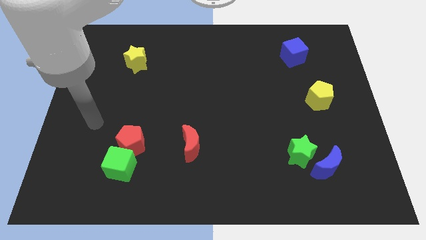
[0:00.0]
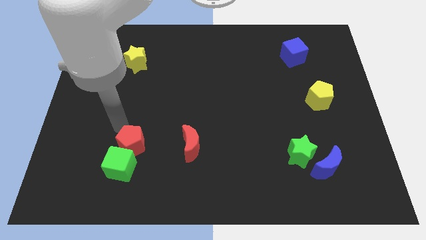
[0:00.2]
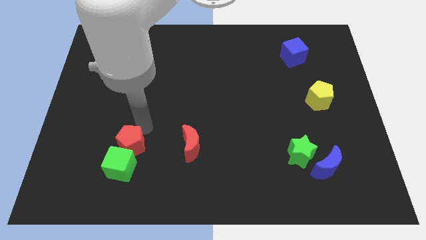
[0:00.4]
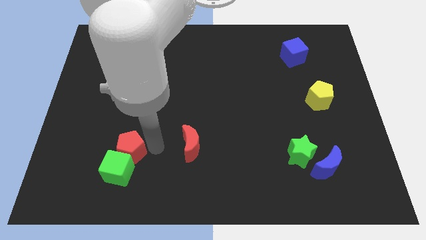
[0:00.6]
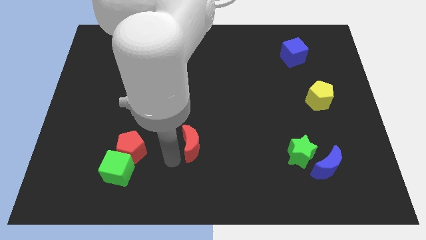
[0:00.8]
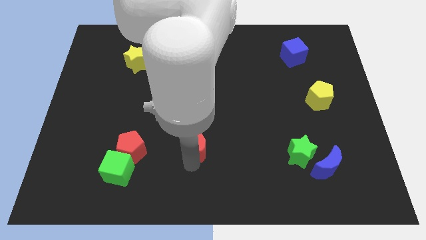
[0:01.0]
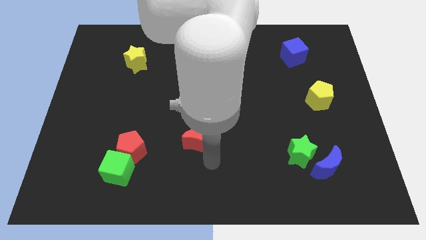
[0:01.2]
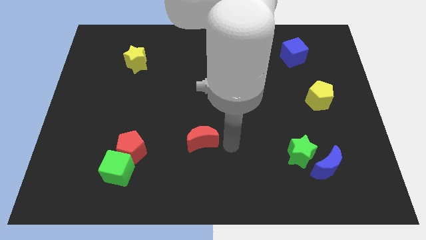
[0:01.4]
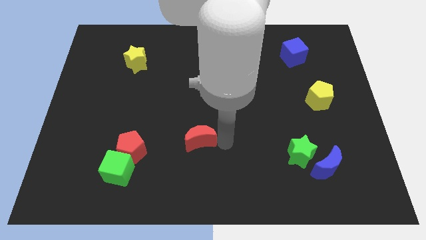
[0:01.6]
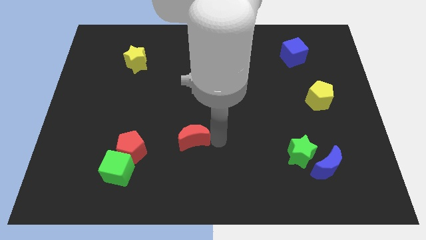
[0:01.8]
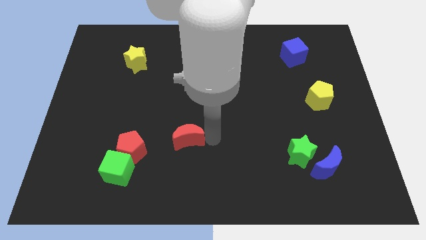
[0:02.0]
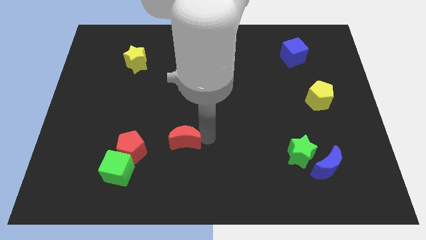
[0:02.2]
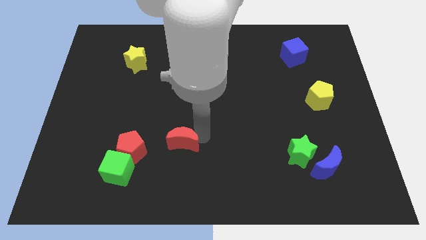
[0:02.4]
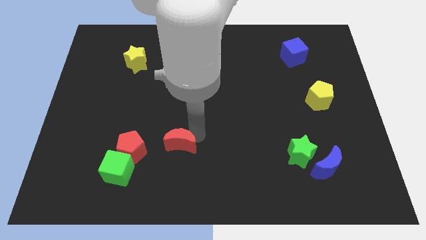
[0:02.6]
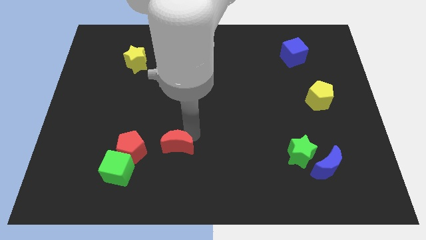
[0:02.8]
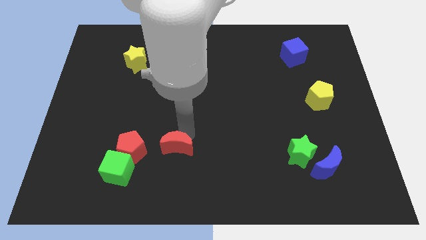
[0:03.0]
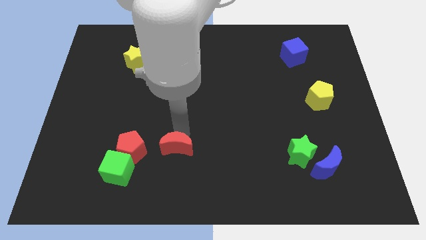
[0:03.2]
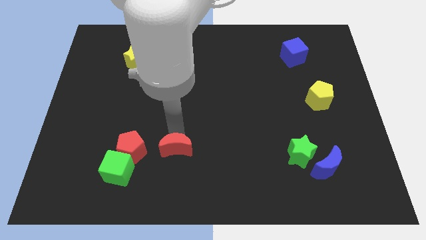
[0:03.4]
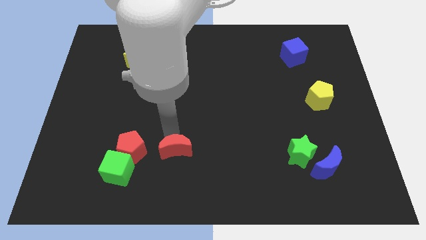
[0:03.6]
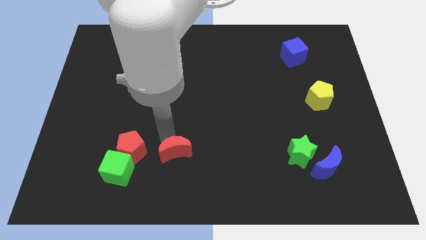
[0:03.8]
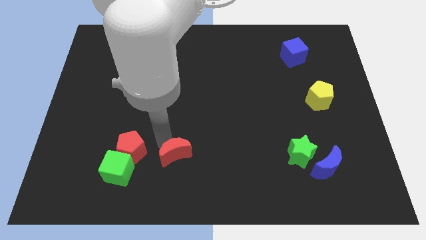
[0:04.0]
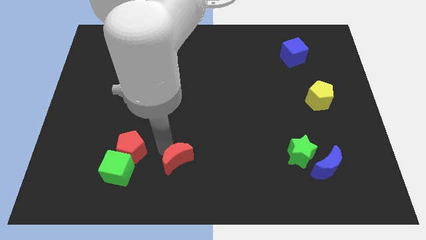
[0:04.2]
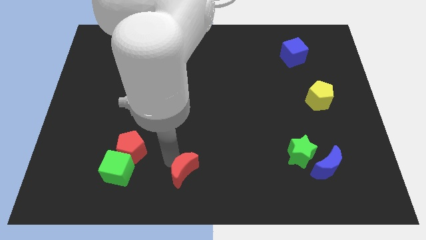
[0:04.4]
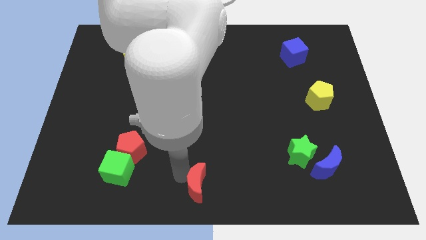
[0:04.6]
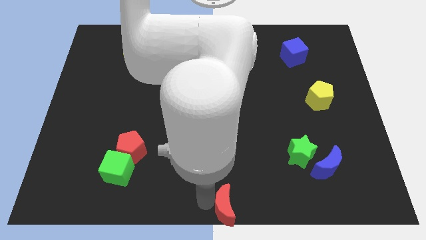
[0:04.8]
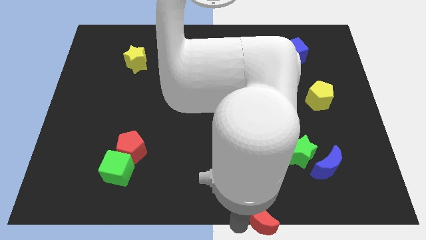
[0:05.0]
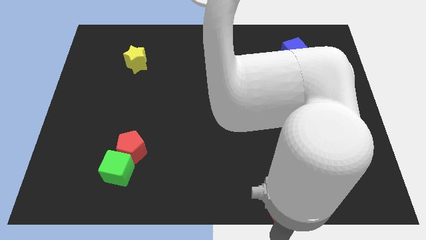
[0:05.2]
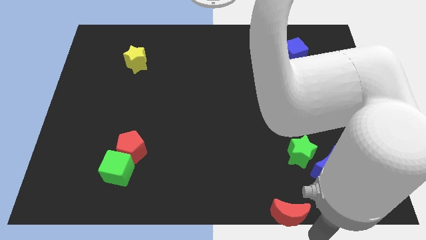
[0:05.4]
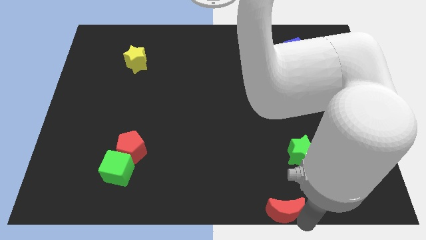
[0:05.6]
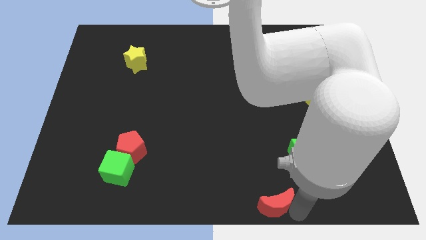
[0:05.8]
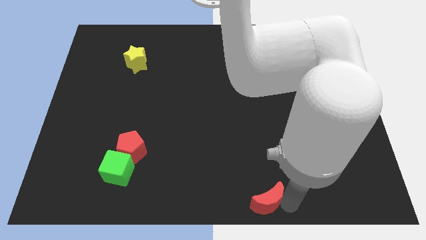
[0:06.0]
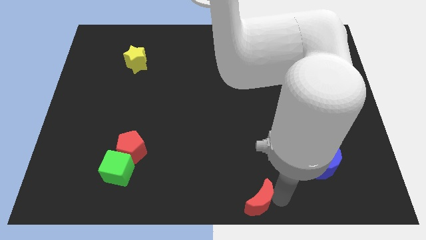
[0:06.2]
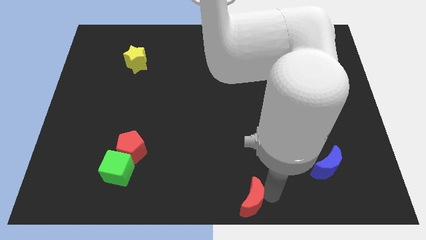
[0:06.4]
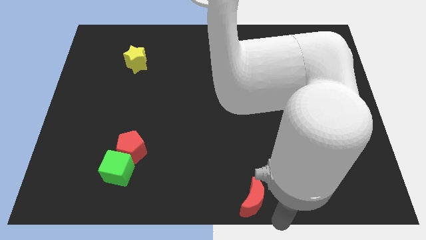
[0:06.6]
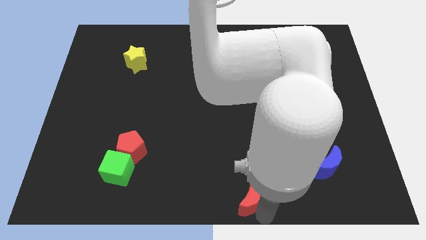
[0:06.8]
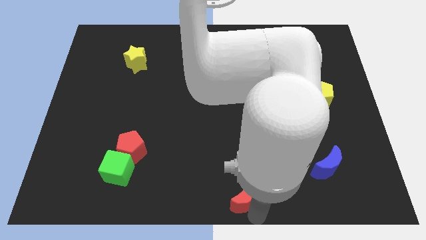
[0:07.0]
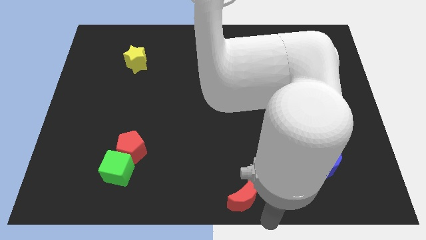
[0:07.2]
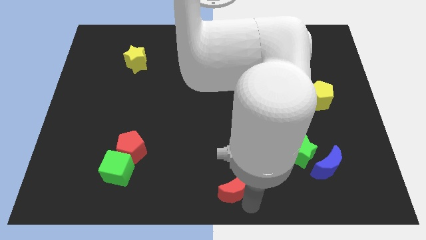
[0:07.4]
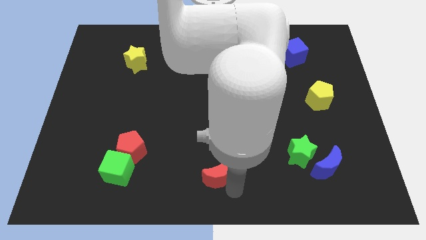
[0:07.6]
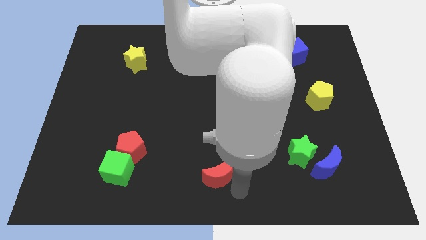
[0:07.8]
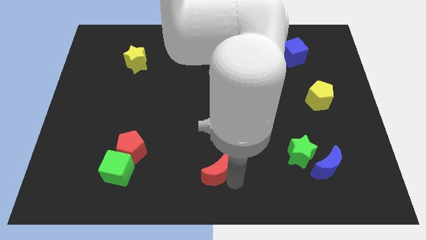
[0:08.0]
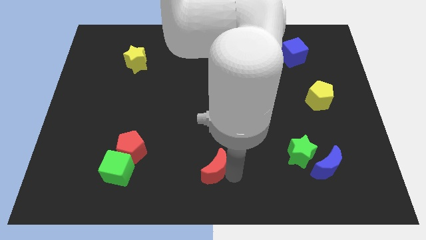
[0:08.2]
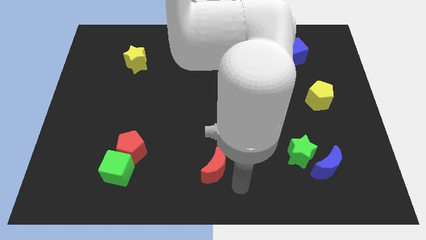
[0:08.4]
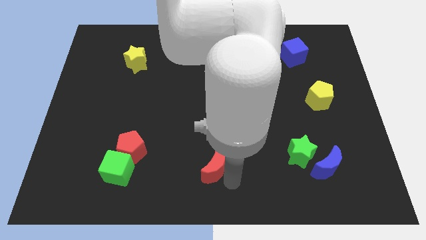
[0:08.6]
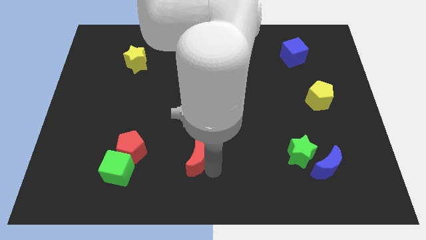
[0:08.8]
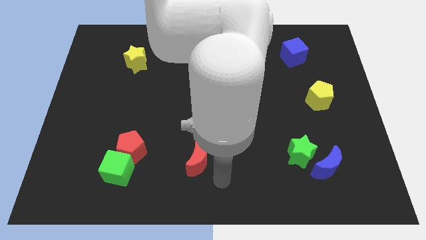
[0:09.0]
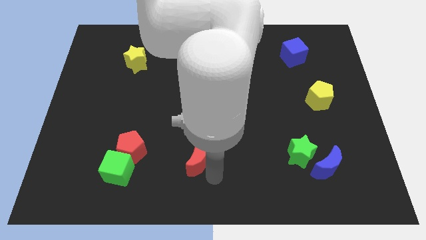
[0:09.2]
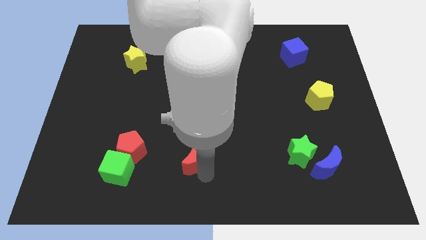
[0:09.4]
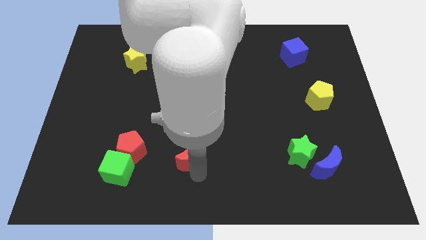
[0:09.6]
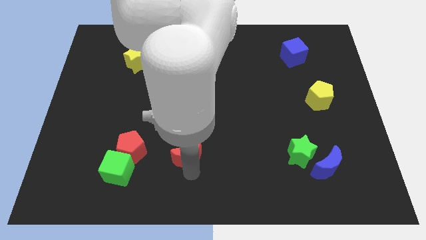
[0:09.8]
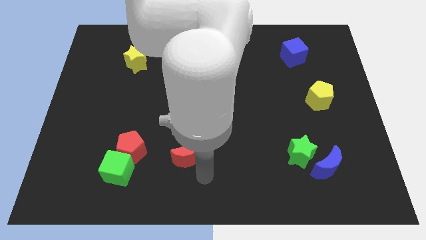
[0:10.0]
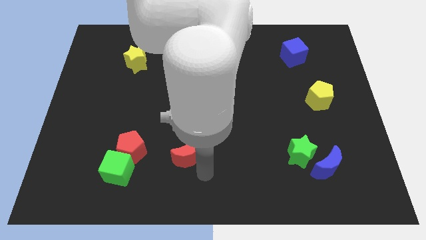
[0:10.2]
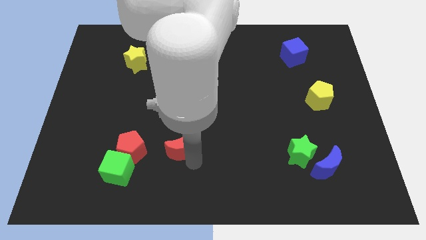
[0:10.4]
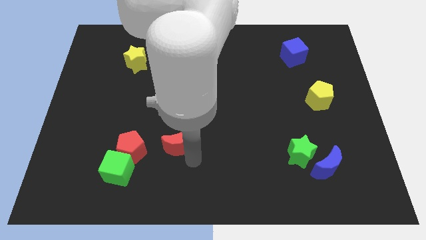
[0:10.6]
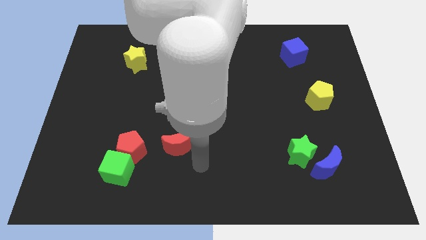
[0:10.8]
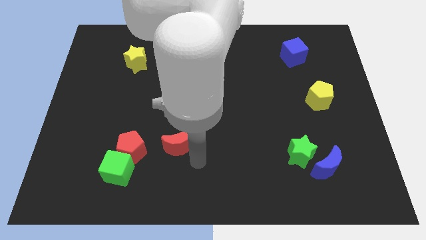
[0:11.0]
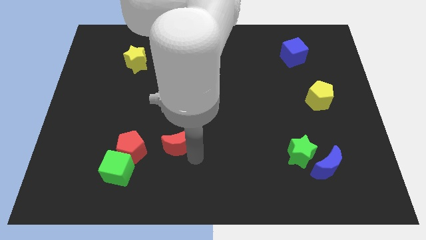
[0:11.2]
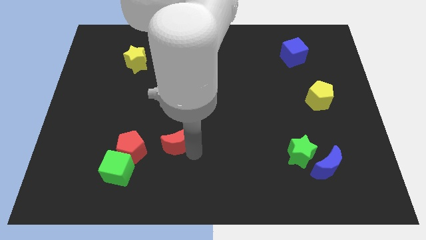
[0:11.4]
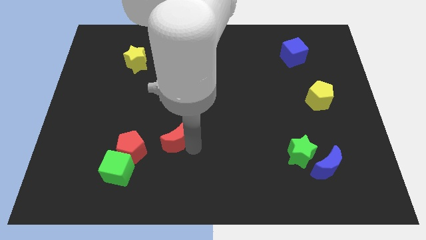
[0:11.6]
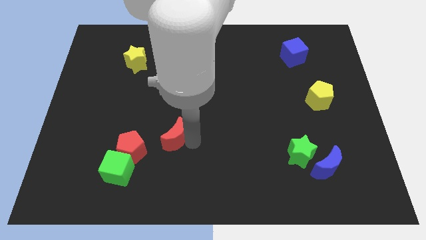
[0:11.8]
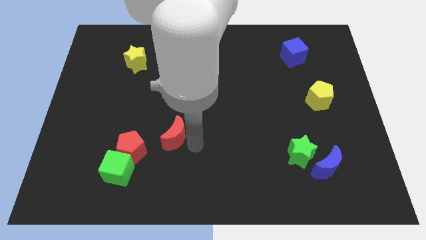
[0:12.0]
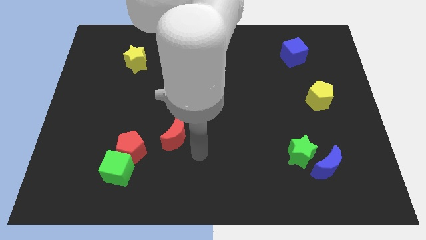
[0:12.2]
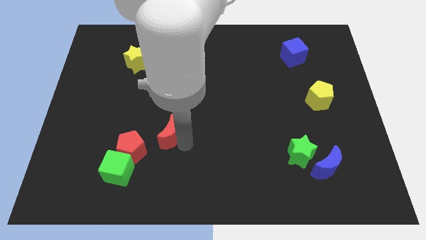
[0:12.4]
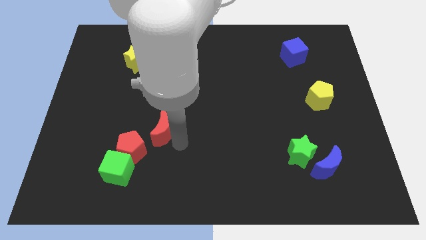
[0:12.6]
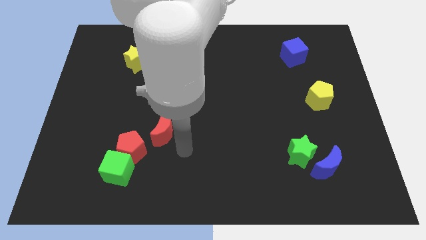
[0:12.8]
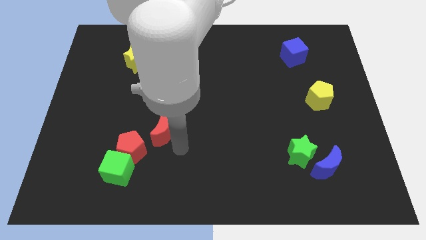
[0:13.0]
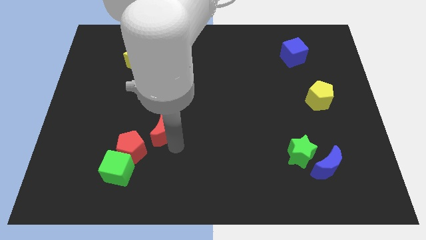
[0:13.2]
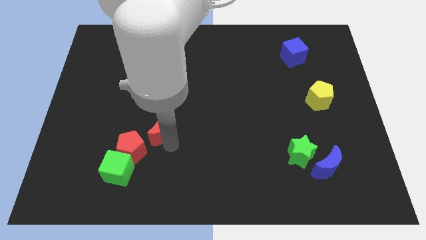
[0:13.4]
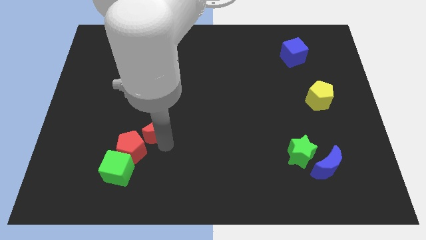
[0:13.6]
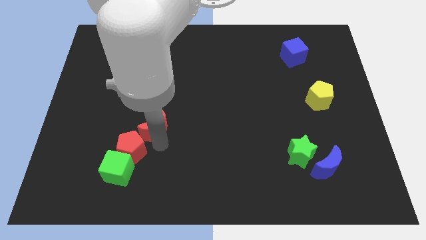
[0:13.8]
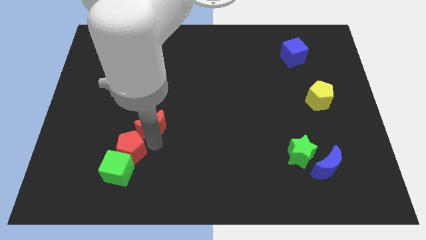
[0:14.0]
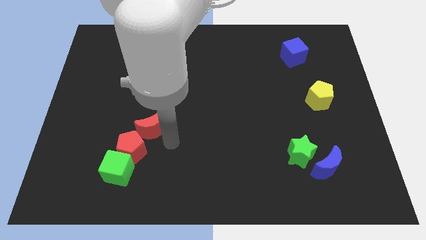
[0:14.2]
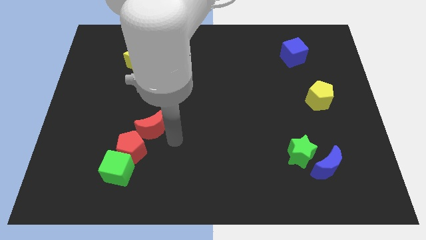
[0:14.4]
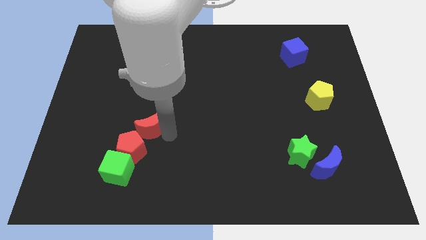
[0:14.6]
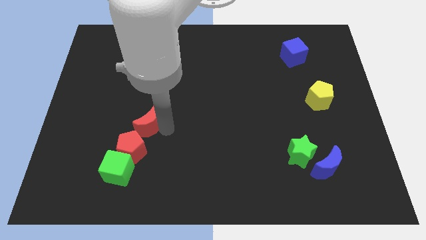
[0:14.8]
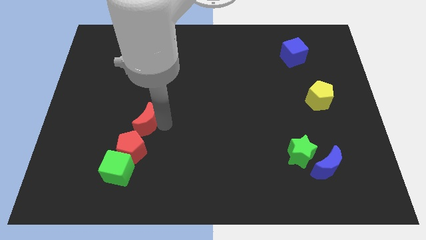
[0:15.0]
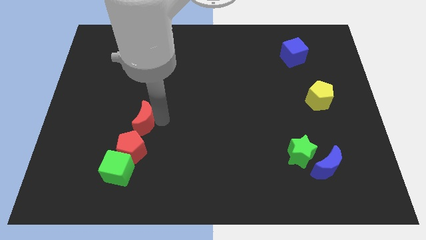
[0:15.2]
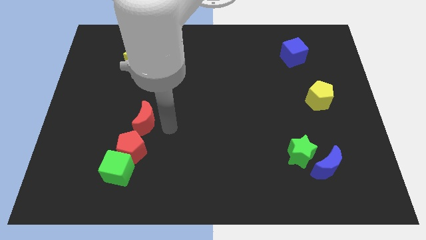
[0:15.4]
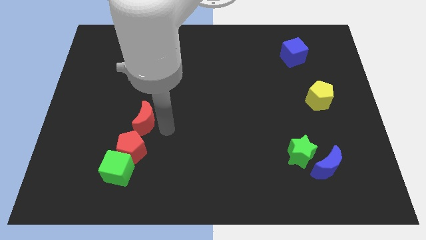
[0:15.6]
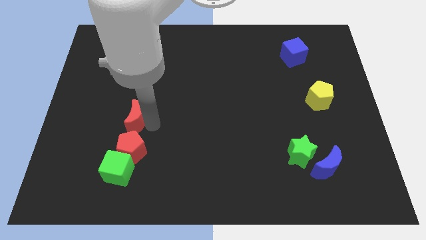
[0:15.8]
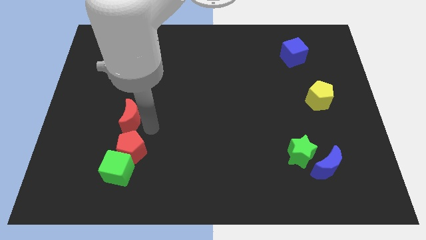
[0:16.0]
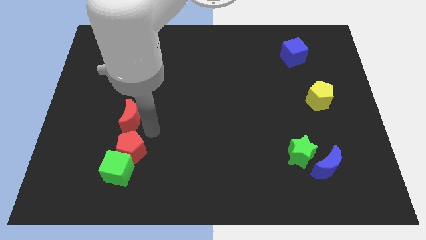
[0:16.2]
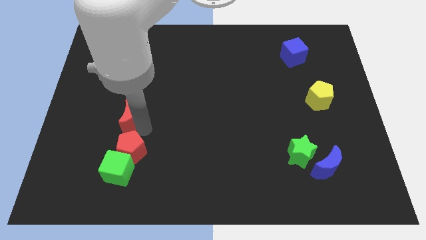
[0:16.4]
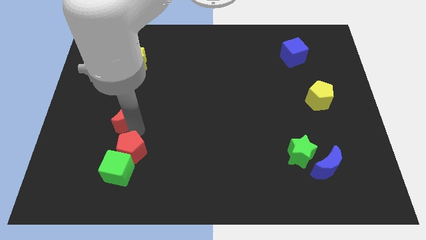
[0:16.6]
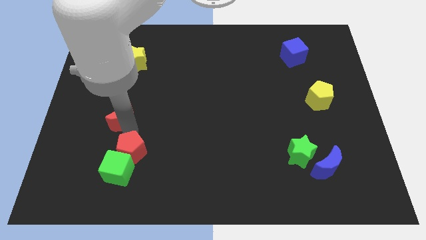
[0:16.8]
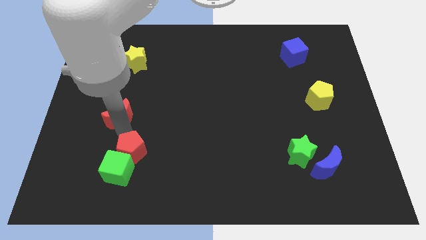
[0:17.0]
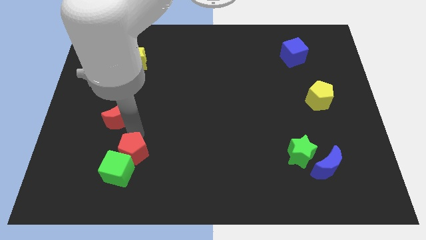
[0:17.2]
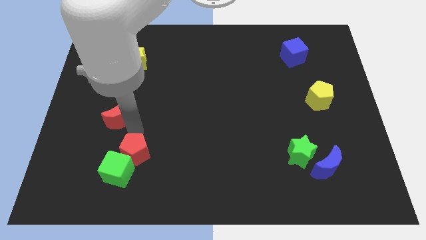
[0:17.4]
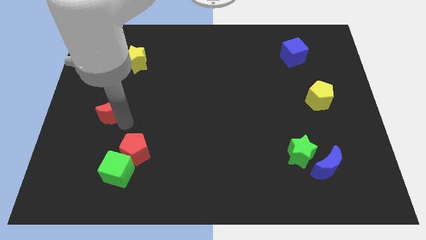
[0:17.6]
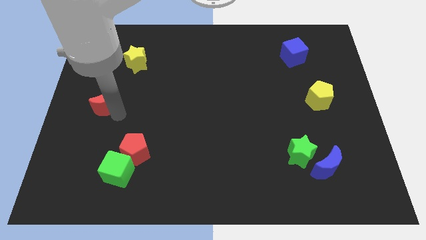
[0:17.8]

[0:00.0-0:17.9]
move the red moon to the left side of the board
